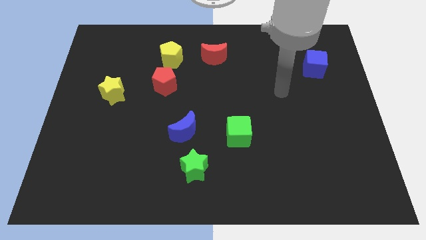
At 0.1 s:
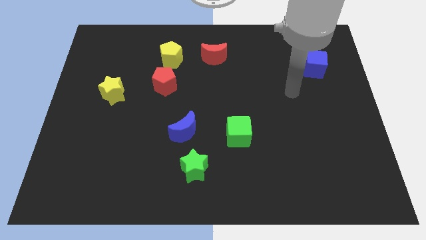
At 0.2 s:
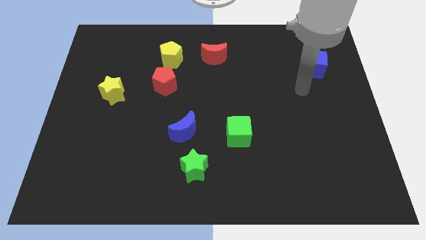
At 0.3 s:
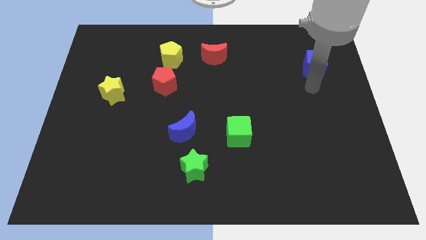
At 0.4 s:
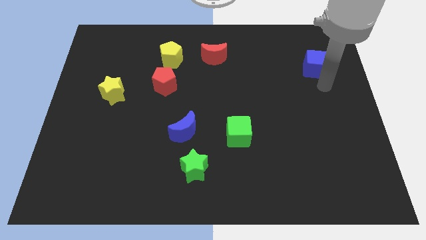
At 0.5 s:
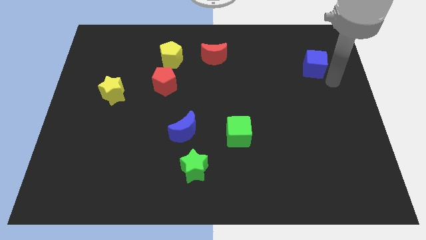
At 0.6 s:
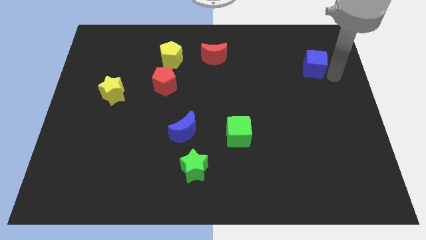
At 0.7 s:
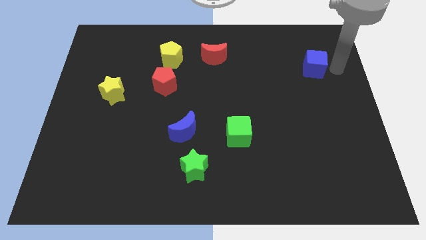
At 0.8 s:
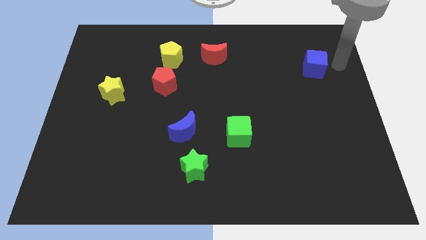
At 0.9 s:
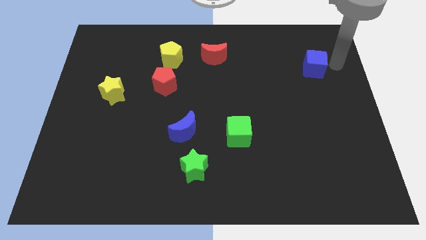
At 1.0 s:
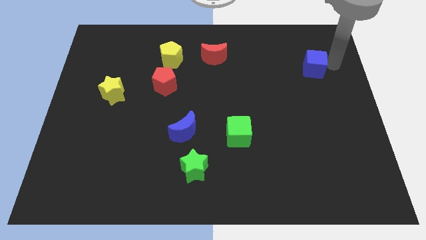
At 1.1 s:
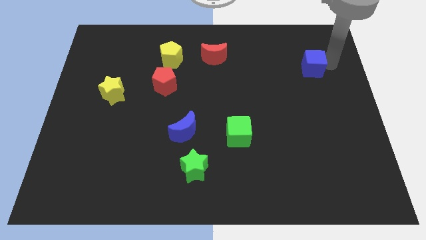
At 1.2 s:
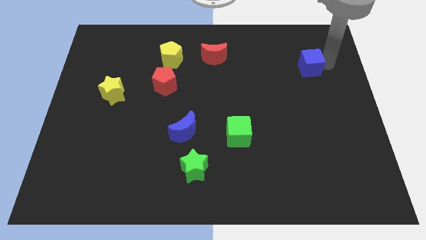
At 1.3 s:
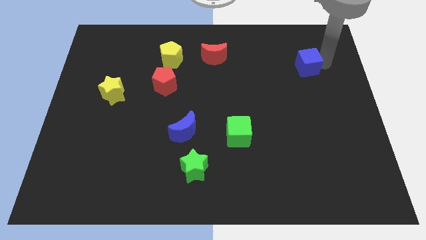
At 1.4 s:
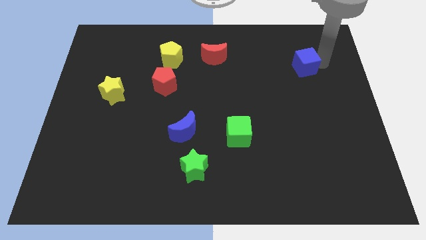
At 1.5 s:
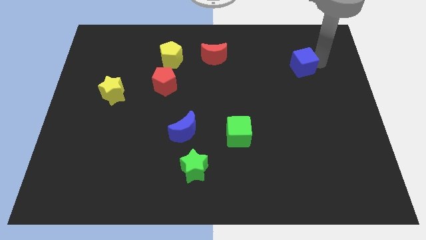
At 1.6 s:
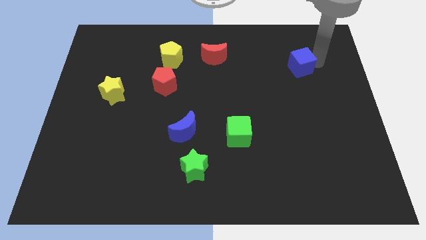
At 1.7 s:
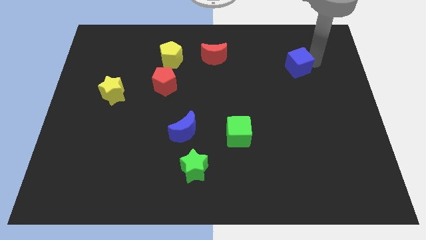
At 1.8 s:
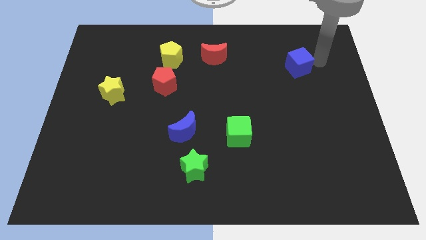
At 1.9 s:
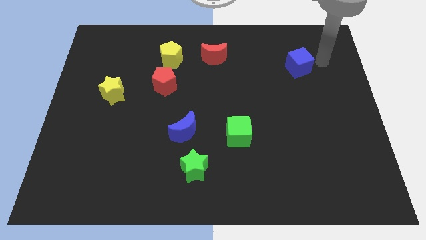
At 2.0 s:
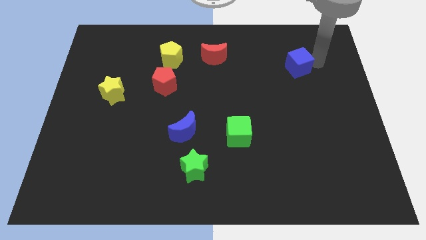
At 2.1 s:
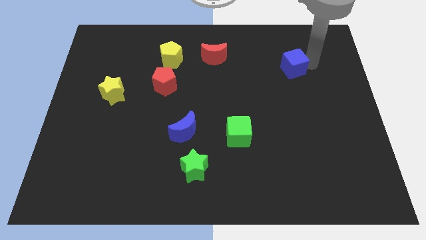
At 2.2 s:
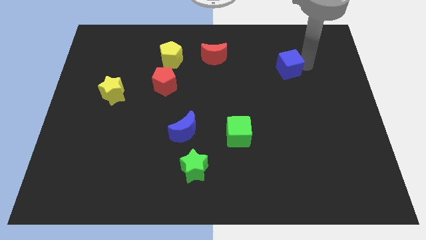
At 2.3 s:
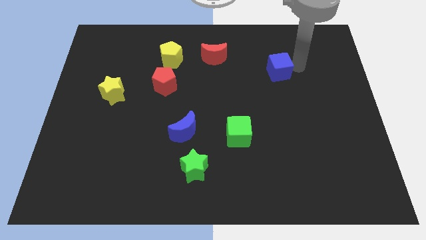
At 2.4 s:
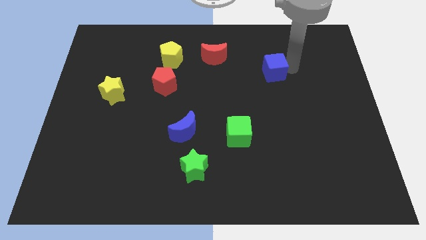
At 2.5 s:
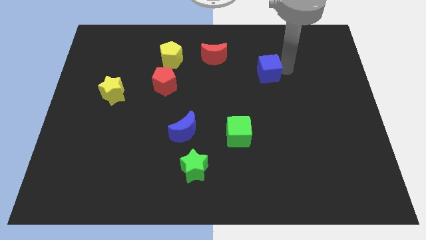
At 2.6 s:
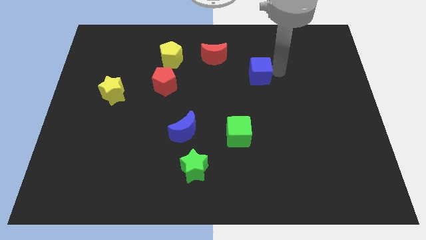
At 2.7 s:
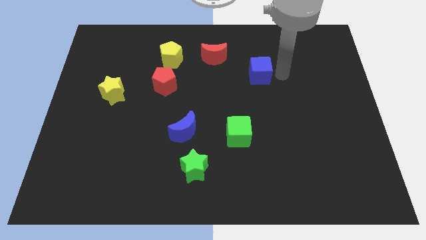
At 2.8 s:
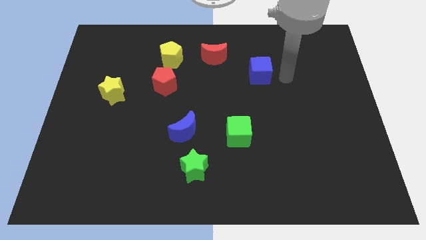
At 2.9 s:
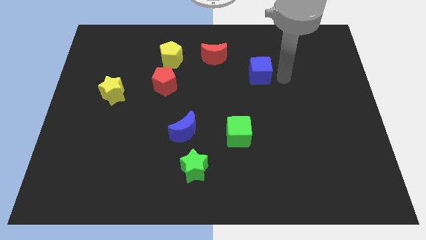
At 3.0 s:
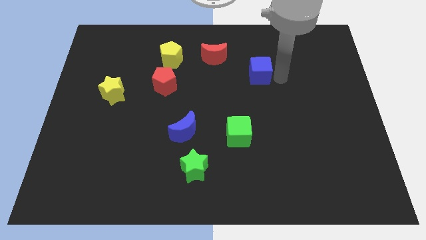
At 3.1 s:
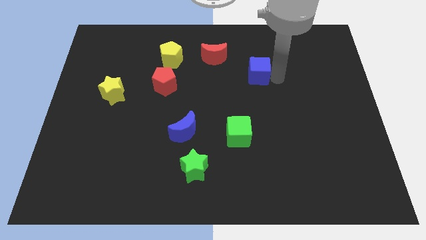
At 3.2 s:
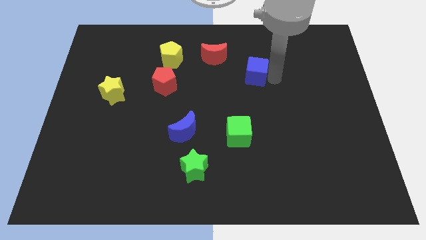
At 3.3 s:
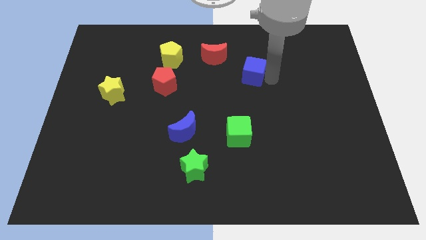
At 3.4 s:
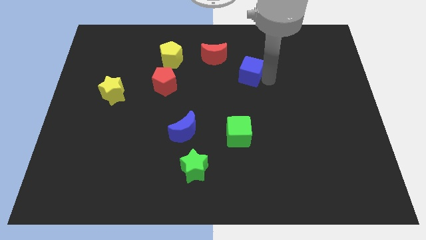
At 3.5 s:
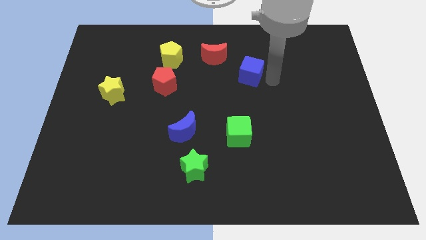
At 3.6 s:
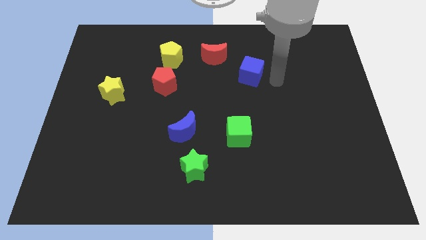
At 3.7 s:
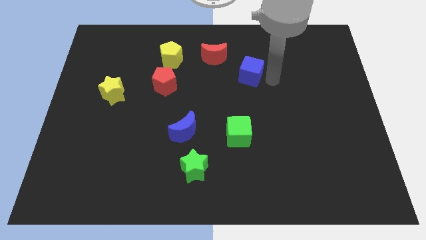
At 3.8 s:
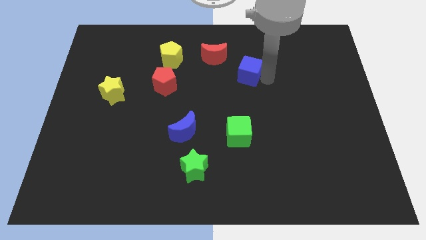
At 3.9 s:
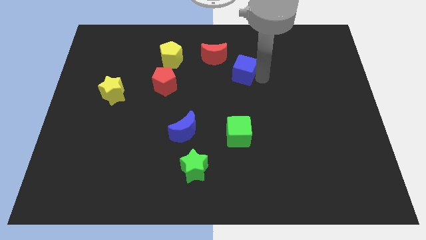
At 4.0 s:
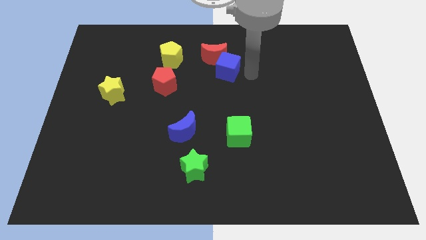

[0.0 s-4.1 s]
push the blue cube to the left

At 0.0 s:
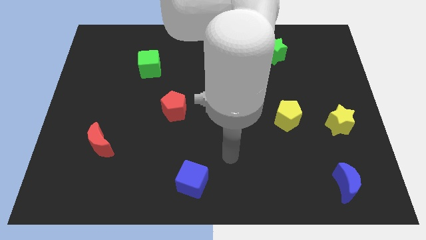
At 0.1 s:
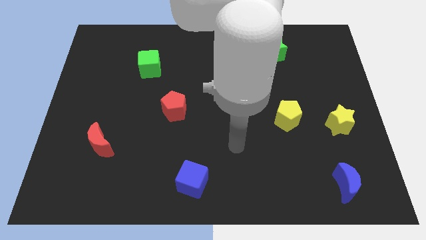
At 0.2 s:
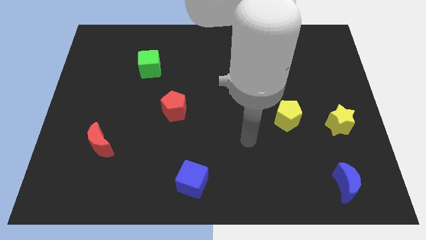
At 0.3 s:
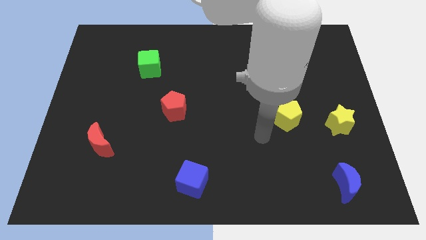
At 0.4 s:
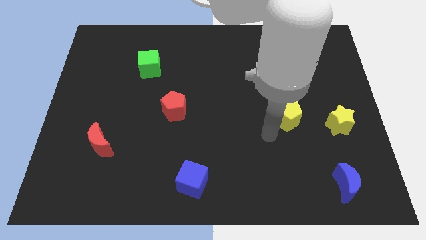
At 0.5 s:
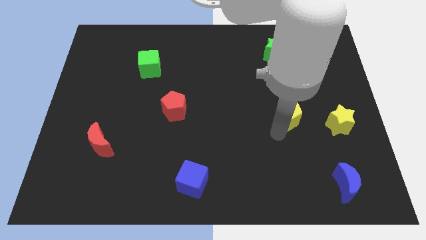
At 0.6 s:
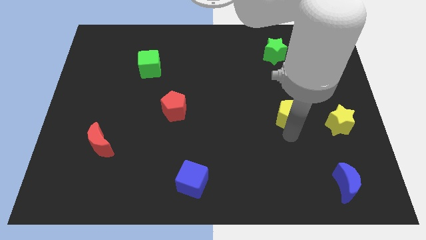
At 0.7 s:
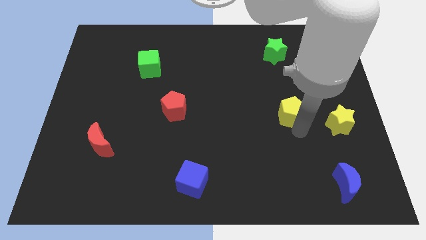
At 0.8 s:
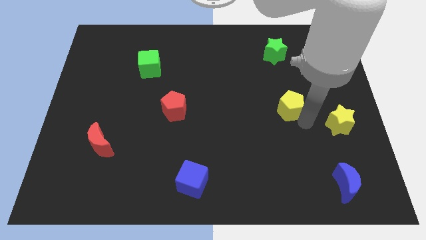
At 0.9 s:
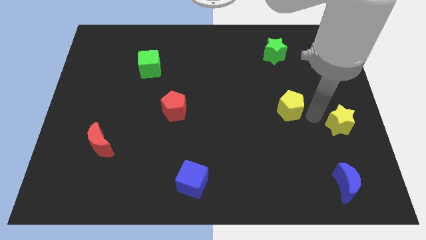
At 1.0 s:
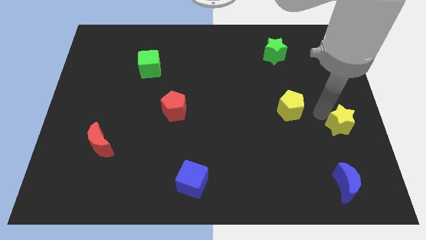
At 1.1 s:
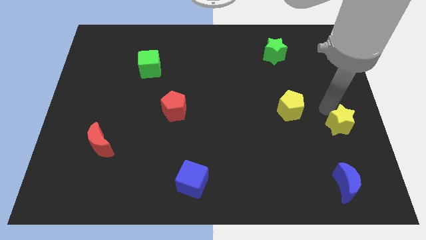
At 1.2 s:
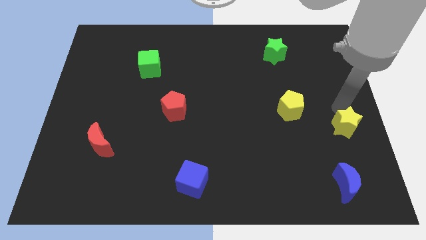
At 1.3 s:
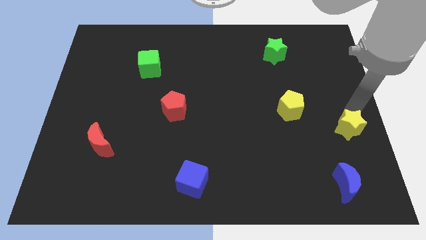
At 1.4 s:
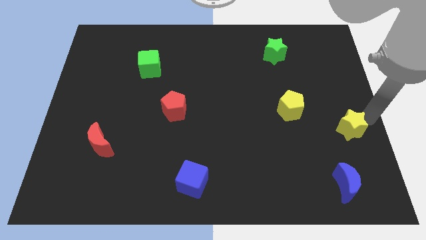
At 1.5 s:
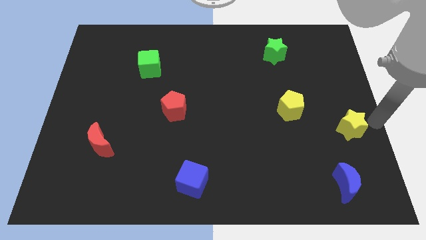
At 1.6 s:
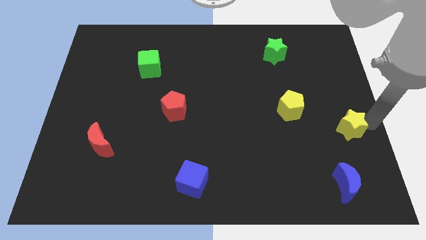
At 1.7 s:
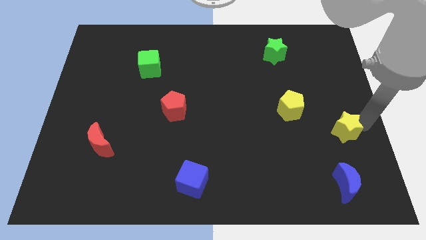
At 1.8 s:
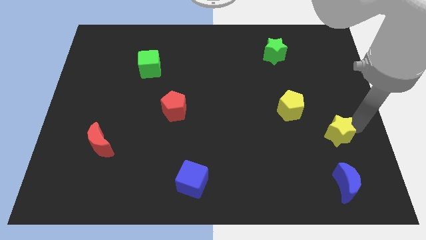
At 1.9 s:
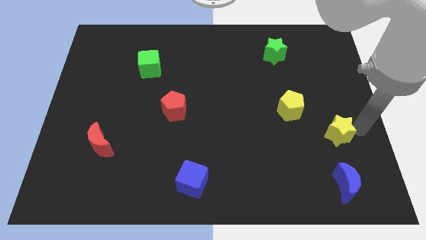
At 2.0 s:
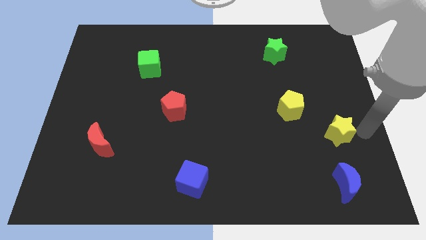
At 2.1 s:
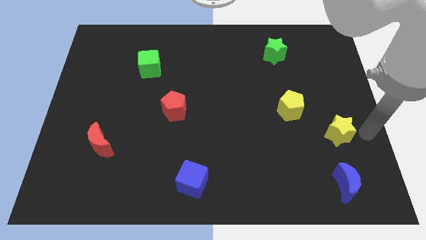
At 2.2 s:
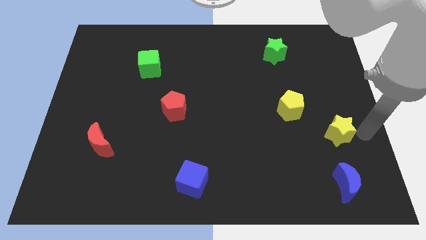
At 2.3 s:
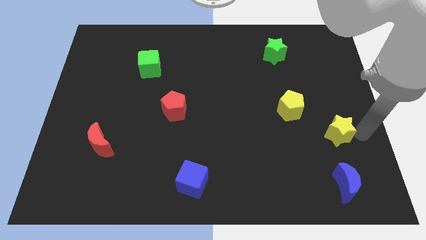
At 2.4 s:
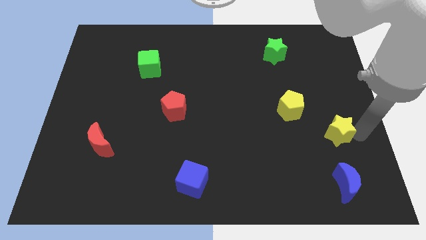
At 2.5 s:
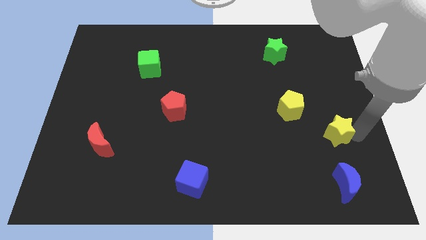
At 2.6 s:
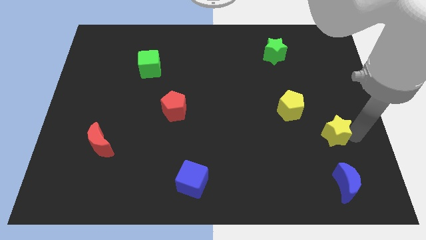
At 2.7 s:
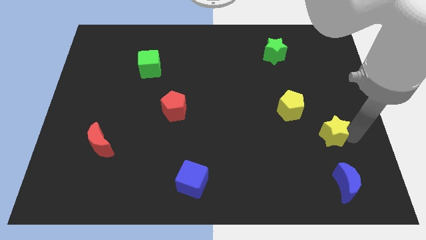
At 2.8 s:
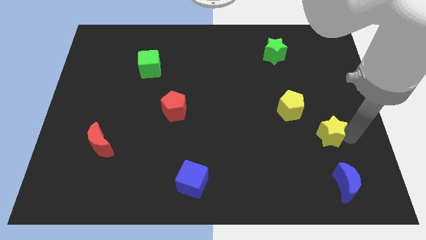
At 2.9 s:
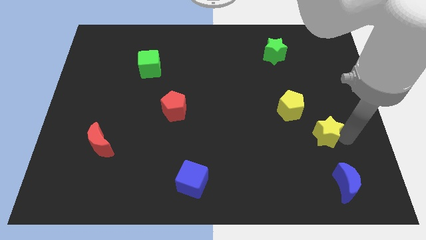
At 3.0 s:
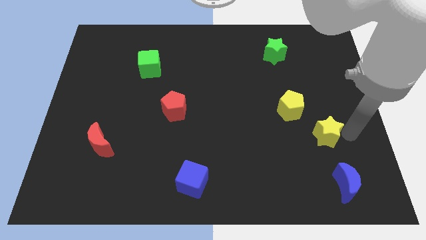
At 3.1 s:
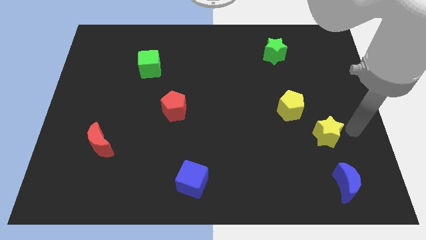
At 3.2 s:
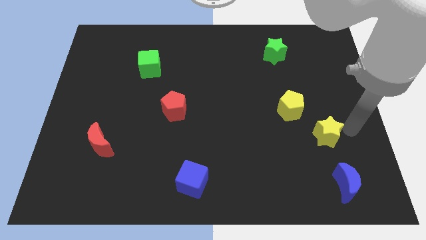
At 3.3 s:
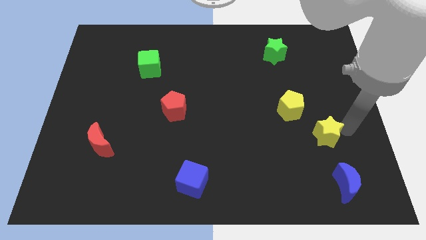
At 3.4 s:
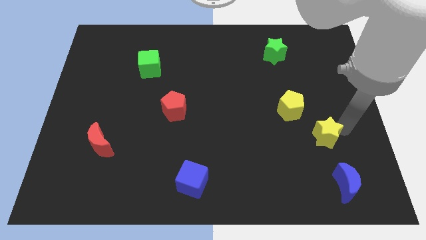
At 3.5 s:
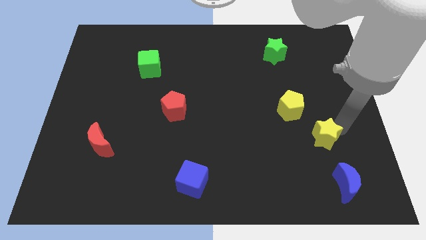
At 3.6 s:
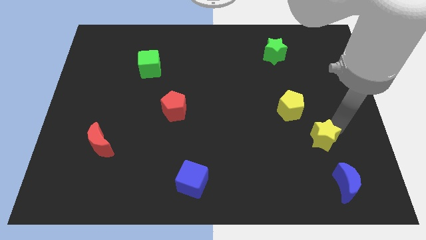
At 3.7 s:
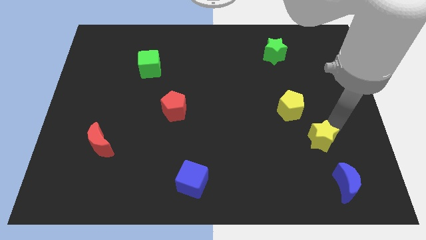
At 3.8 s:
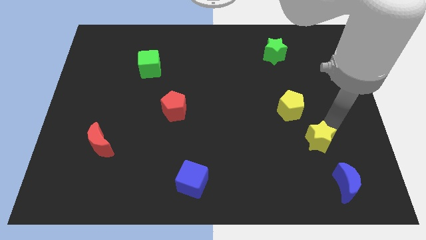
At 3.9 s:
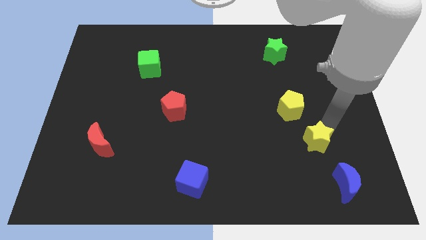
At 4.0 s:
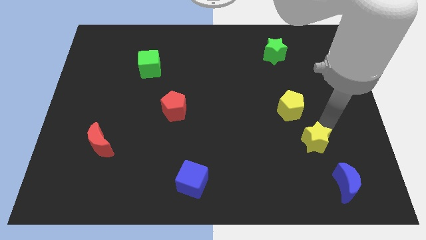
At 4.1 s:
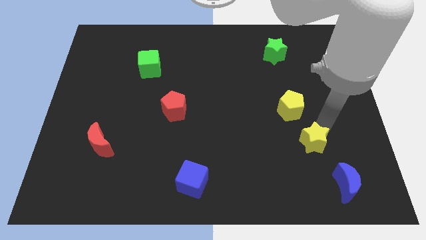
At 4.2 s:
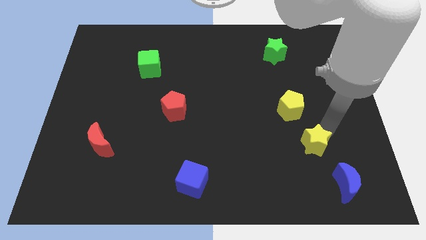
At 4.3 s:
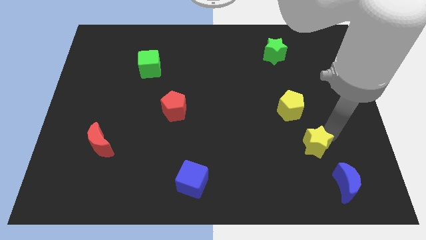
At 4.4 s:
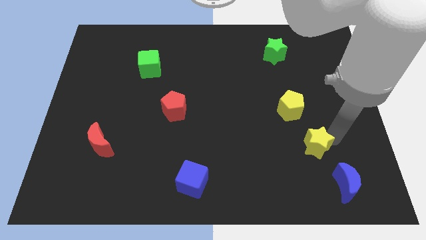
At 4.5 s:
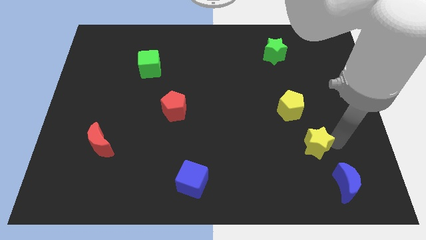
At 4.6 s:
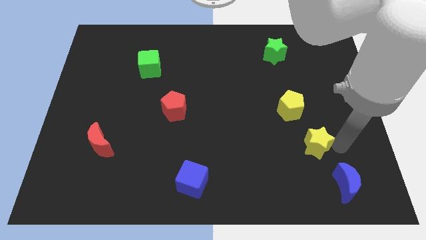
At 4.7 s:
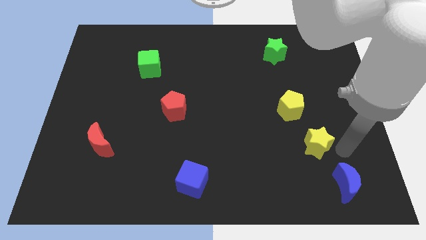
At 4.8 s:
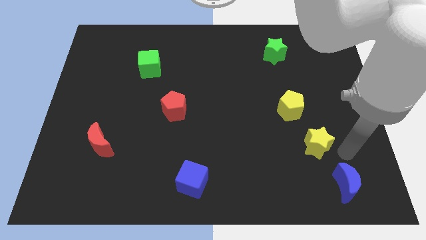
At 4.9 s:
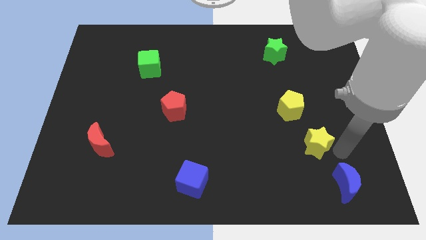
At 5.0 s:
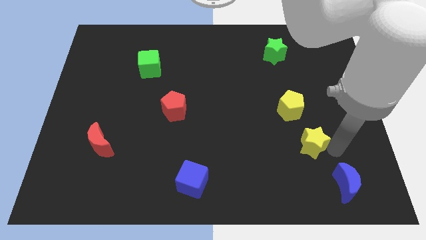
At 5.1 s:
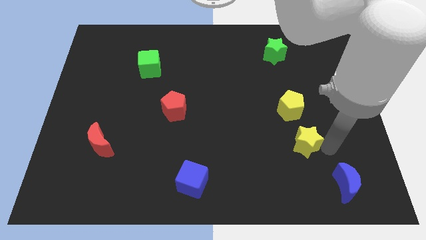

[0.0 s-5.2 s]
move the yellow star a little to the left
